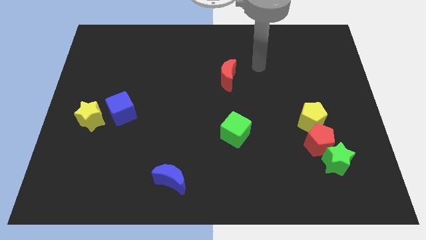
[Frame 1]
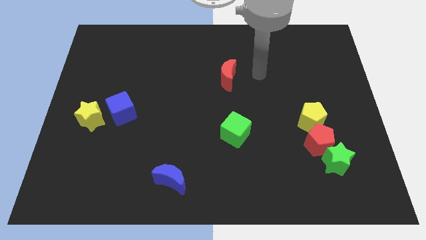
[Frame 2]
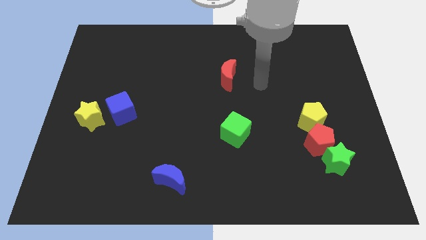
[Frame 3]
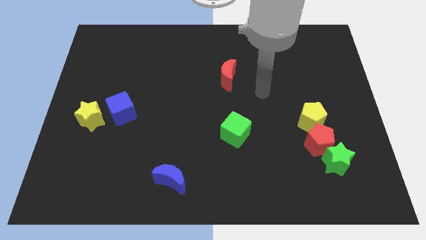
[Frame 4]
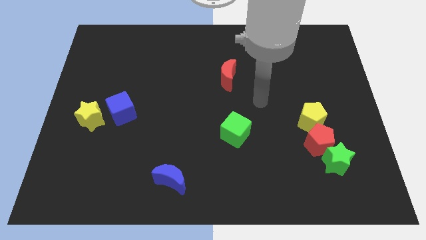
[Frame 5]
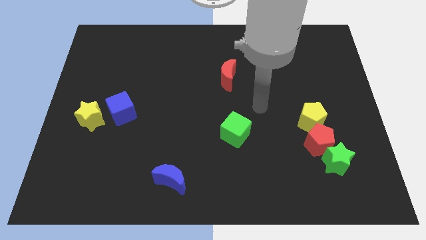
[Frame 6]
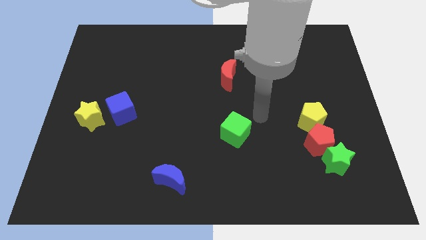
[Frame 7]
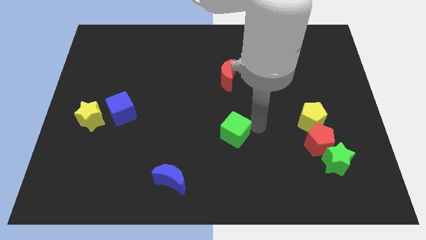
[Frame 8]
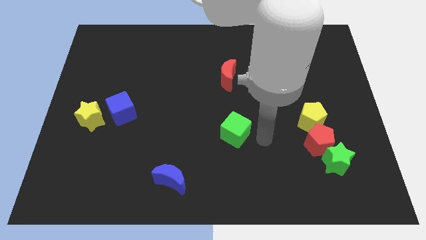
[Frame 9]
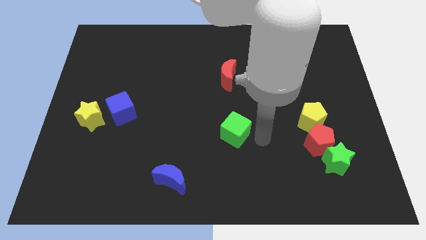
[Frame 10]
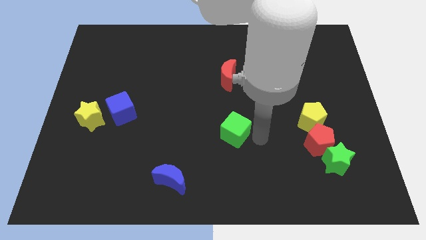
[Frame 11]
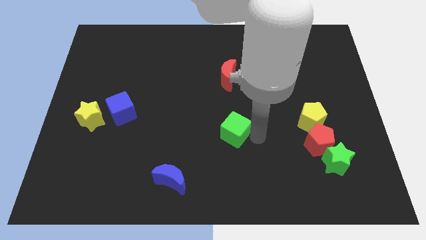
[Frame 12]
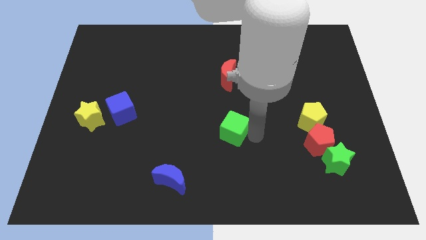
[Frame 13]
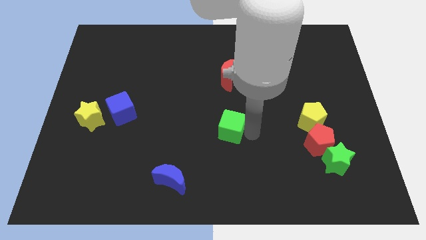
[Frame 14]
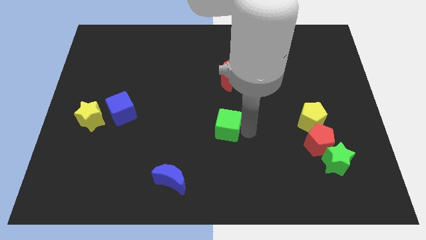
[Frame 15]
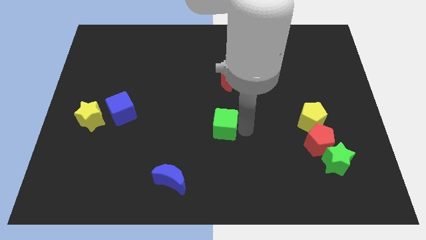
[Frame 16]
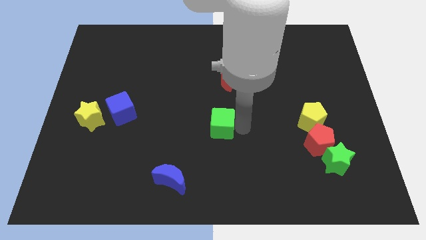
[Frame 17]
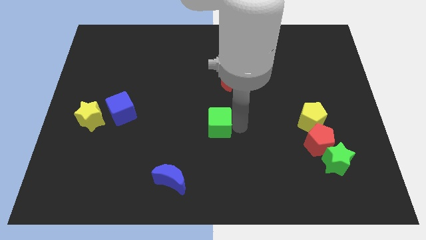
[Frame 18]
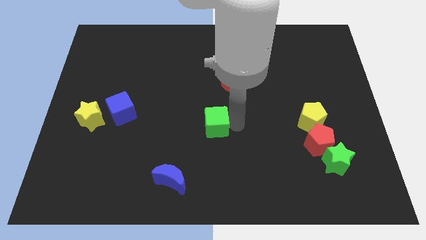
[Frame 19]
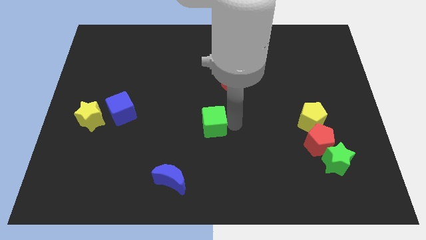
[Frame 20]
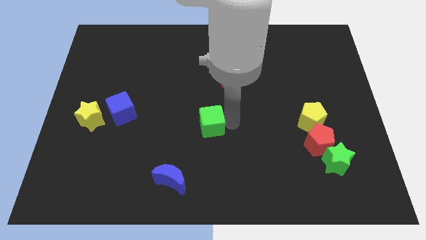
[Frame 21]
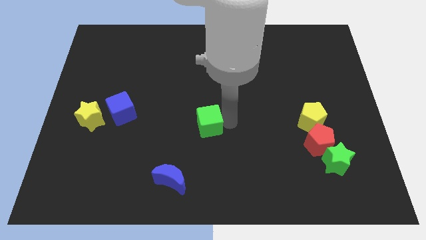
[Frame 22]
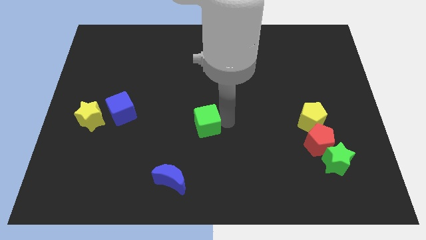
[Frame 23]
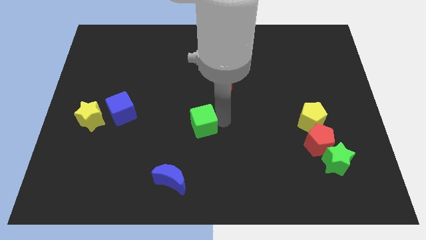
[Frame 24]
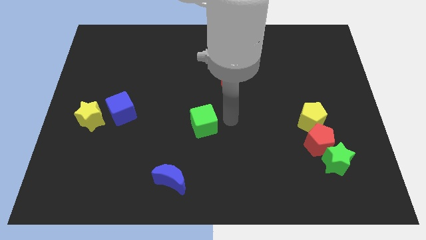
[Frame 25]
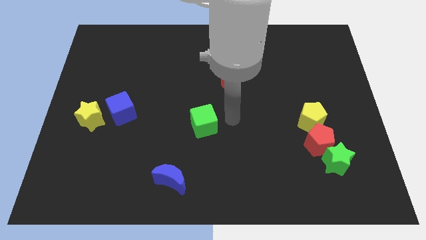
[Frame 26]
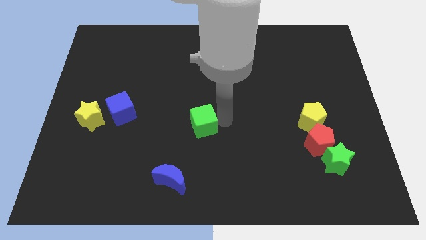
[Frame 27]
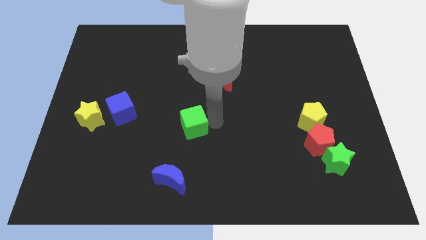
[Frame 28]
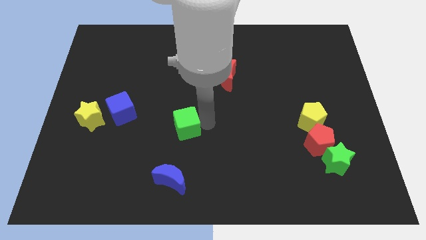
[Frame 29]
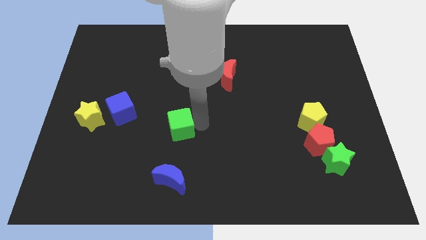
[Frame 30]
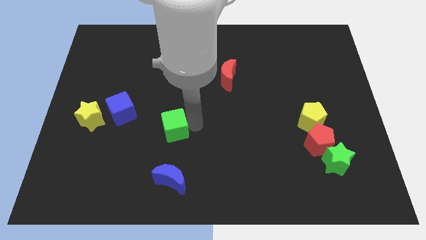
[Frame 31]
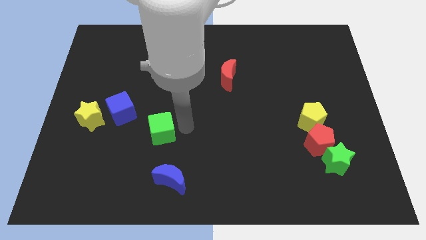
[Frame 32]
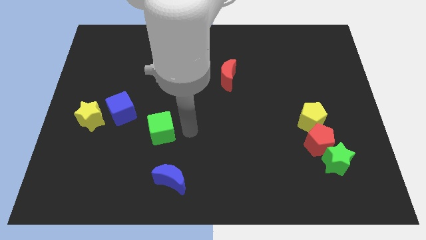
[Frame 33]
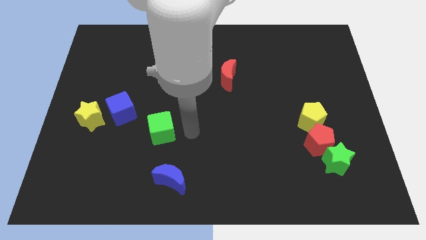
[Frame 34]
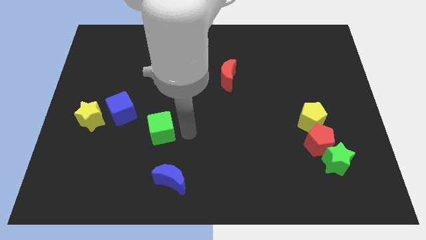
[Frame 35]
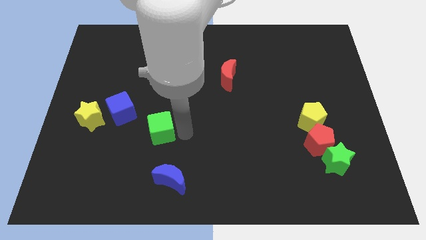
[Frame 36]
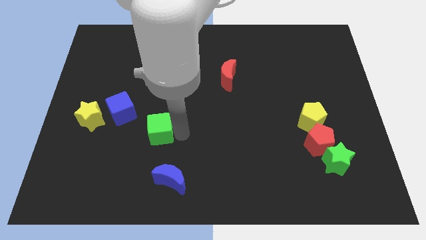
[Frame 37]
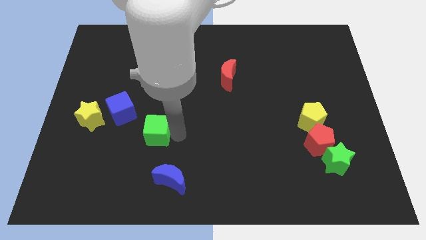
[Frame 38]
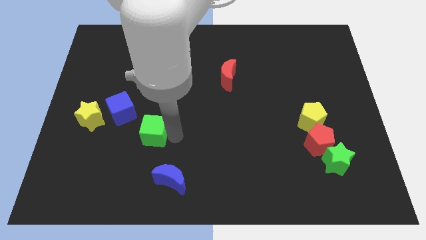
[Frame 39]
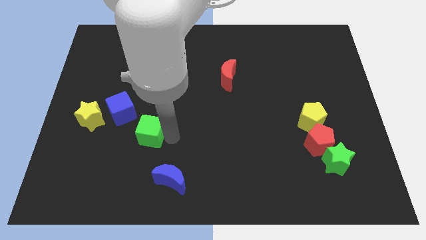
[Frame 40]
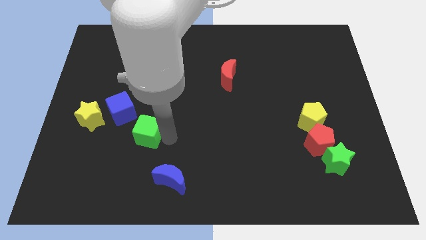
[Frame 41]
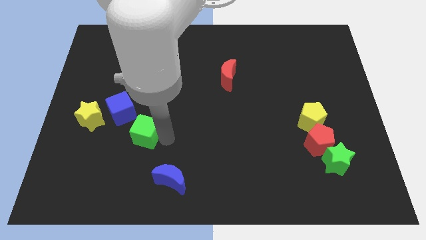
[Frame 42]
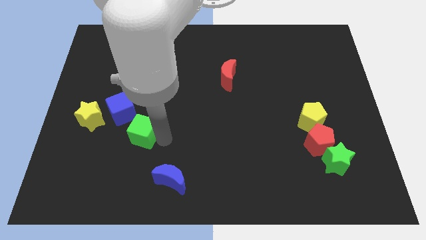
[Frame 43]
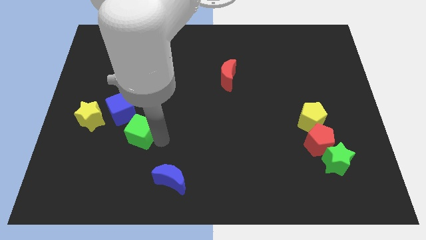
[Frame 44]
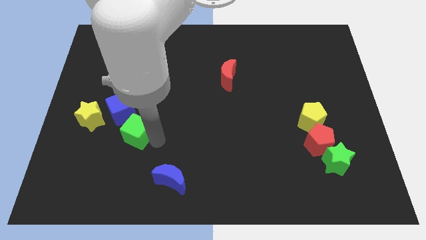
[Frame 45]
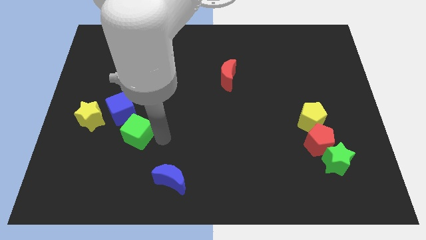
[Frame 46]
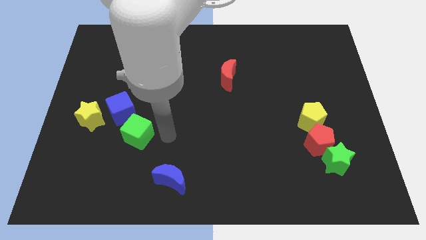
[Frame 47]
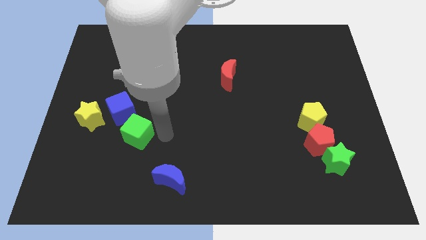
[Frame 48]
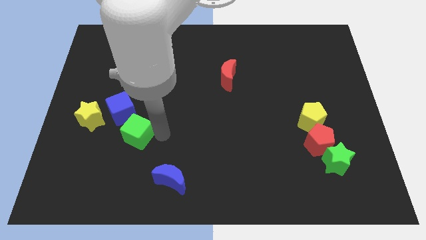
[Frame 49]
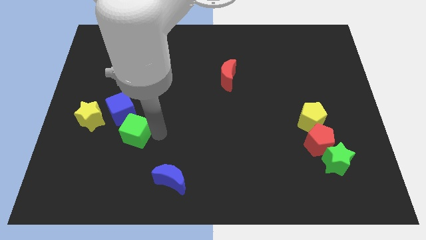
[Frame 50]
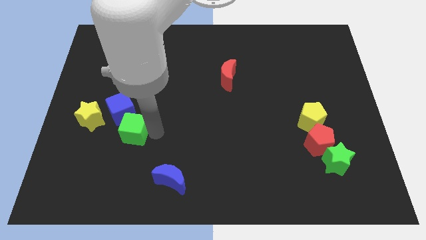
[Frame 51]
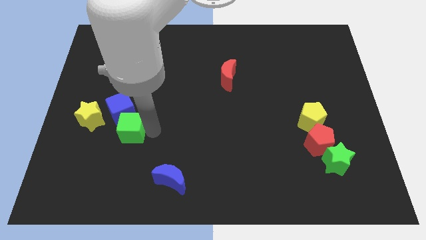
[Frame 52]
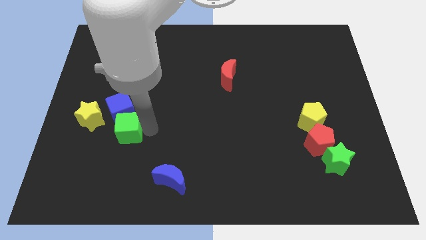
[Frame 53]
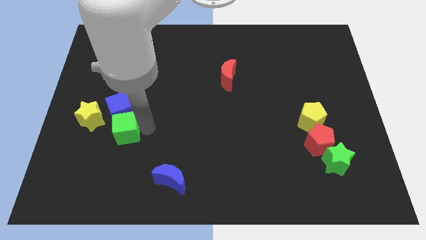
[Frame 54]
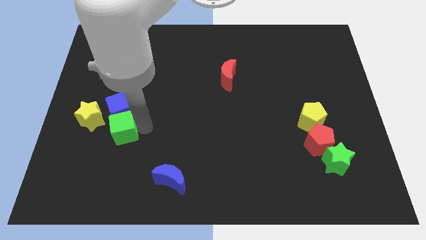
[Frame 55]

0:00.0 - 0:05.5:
push the green cube to the bottom left of the blue cube

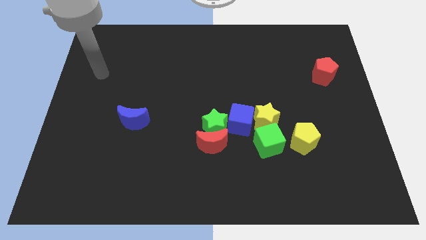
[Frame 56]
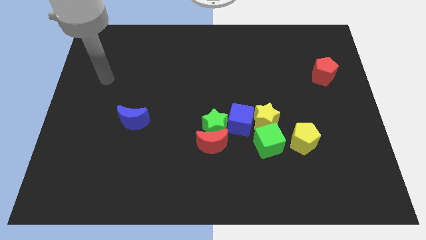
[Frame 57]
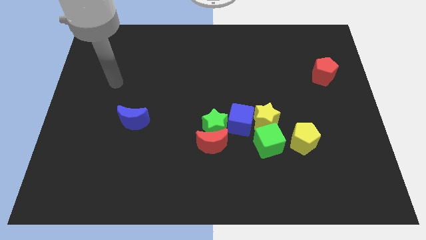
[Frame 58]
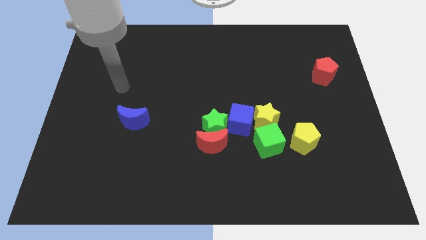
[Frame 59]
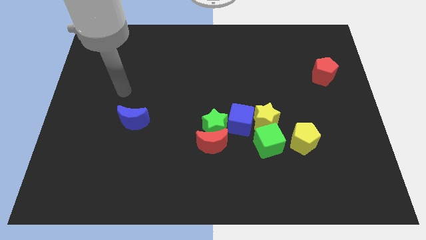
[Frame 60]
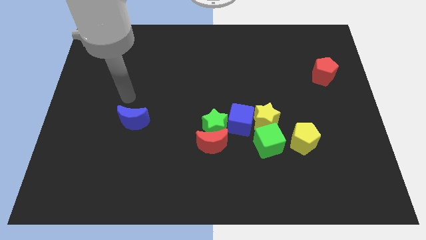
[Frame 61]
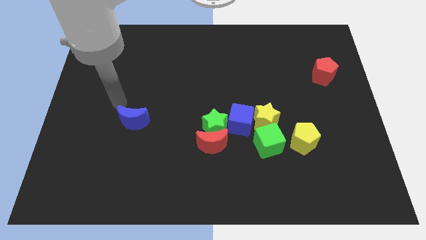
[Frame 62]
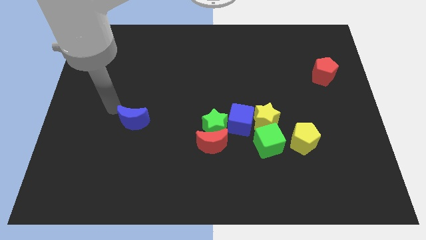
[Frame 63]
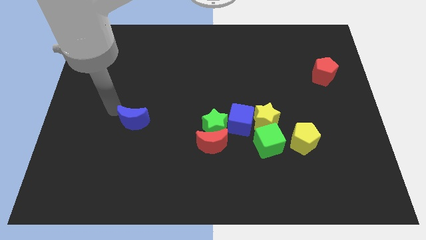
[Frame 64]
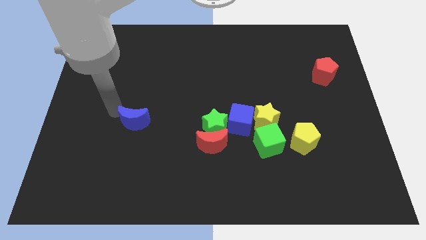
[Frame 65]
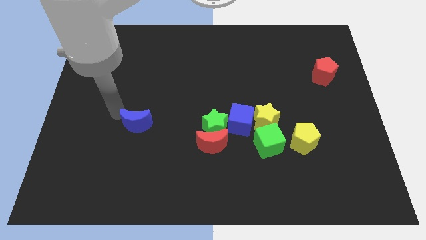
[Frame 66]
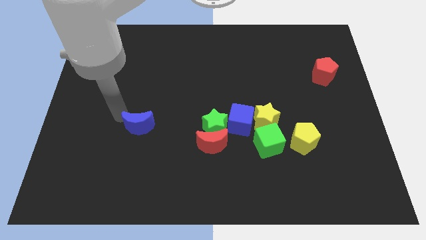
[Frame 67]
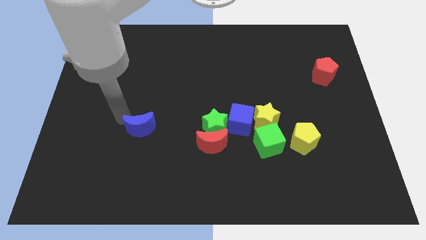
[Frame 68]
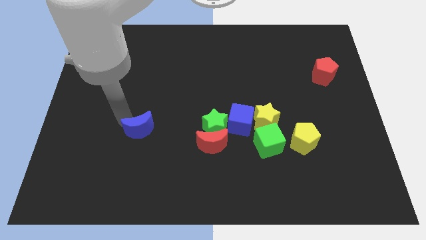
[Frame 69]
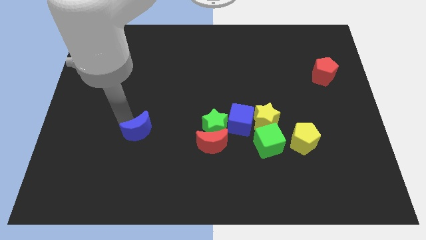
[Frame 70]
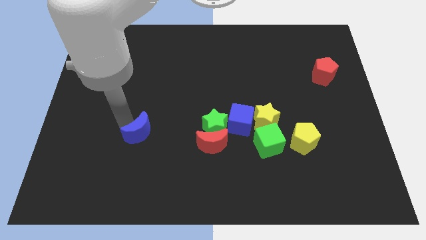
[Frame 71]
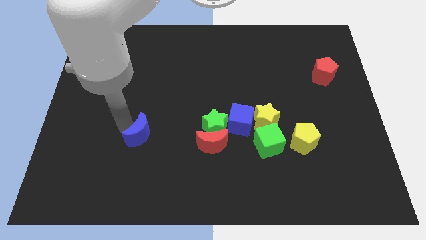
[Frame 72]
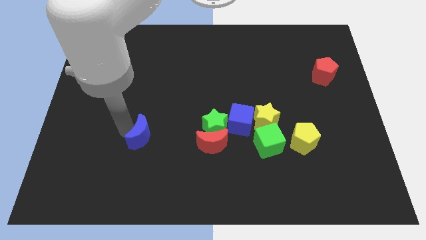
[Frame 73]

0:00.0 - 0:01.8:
move the blue moon to the left of the red moon

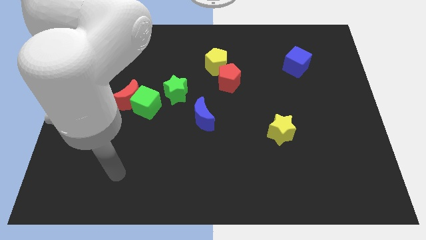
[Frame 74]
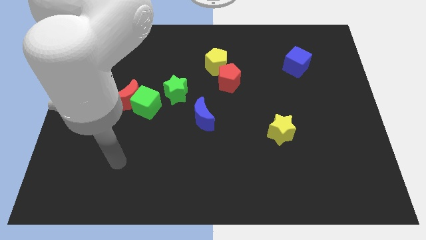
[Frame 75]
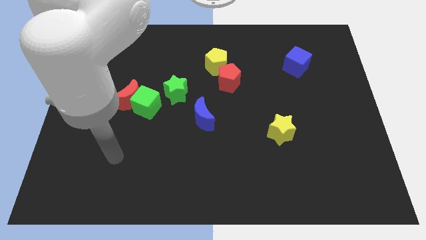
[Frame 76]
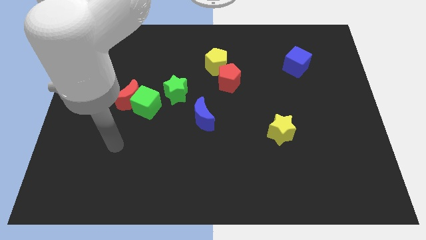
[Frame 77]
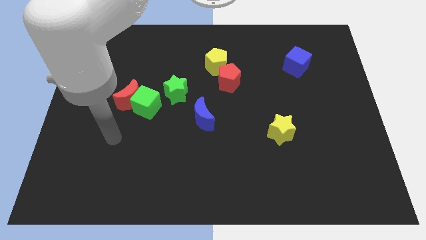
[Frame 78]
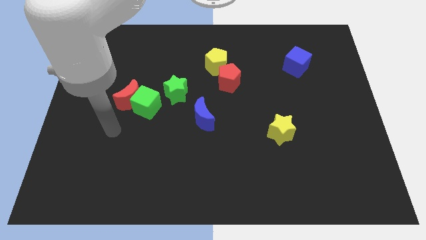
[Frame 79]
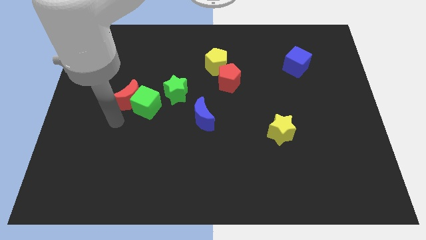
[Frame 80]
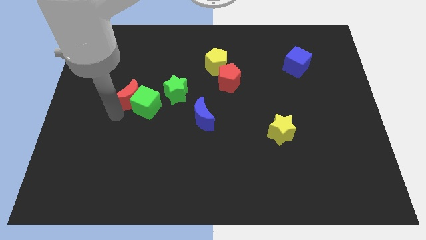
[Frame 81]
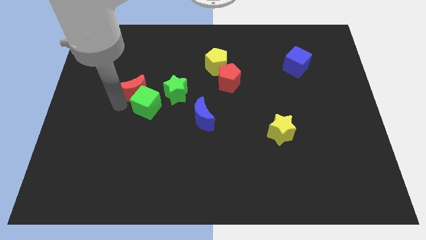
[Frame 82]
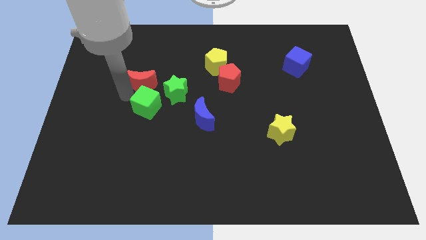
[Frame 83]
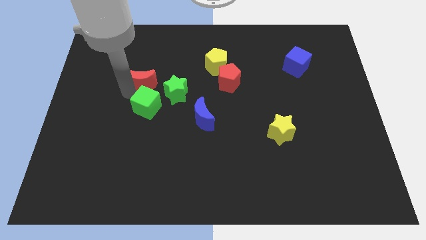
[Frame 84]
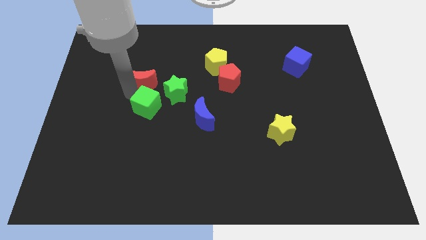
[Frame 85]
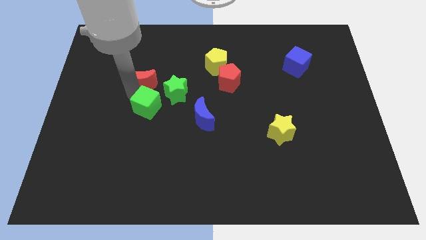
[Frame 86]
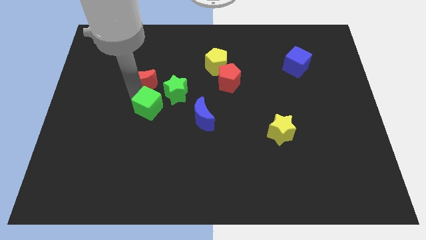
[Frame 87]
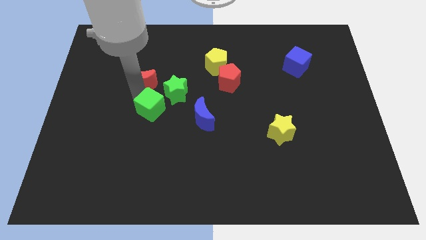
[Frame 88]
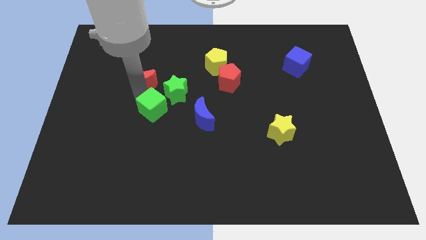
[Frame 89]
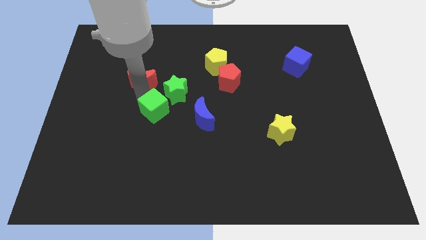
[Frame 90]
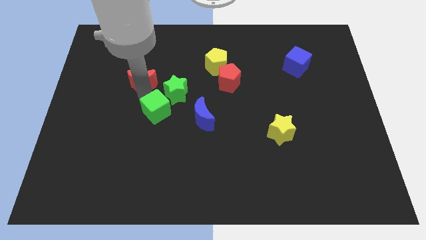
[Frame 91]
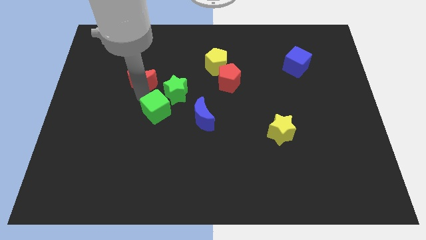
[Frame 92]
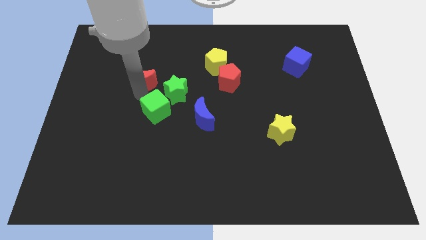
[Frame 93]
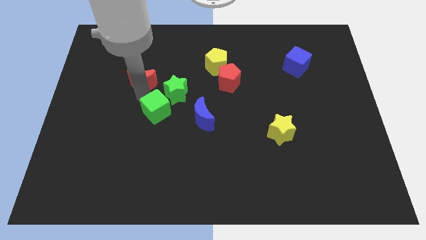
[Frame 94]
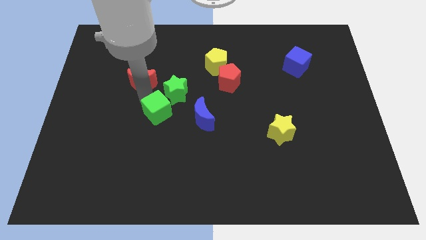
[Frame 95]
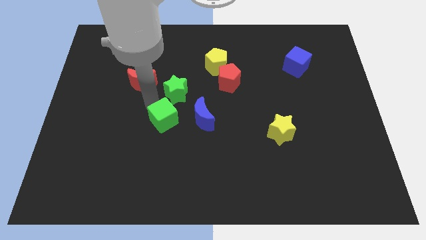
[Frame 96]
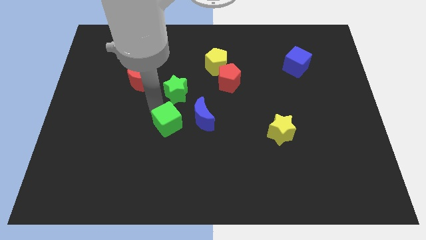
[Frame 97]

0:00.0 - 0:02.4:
slide the green cube to the bottom left of the blue moon
